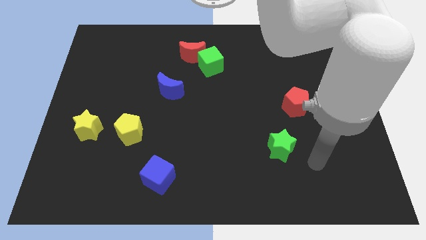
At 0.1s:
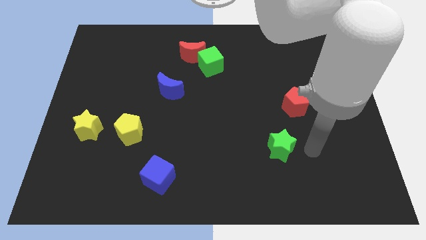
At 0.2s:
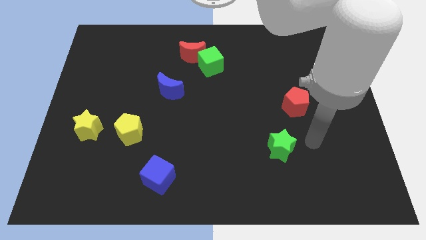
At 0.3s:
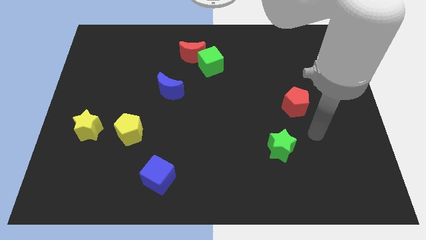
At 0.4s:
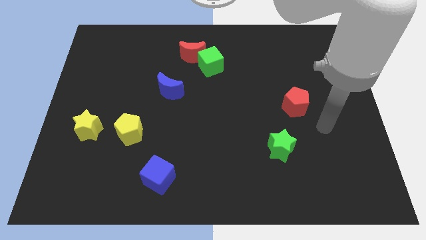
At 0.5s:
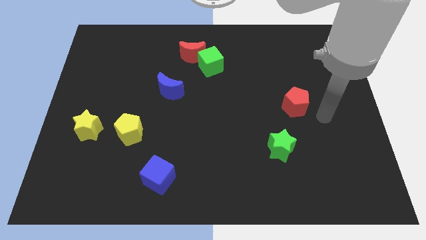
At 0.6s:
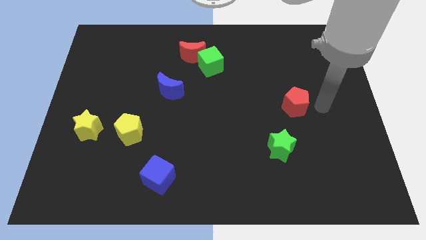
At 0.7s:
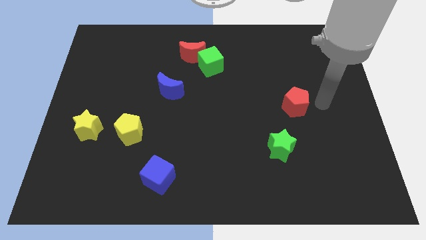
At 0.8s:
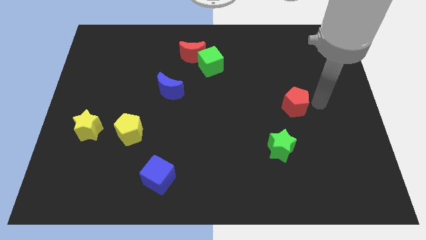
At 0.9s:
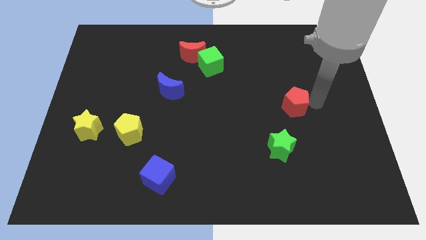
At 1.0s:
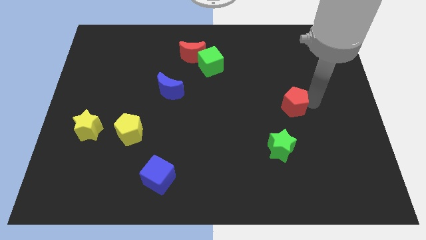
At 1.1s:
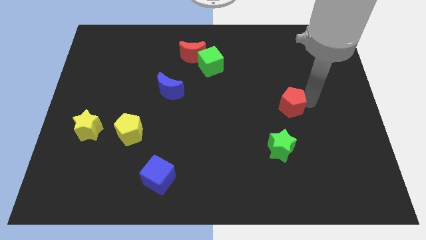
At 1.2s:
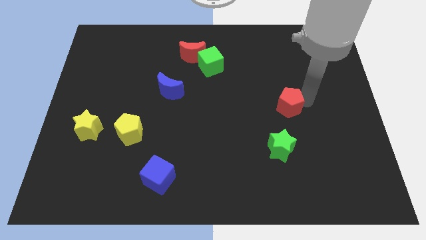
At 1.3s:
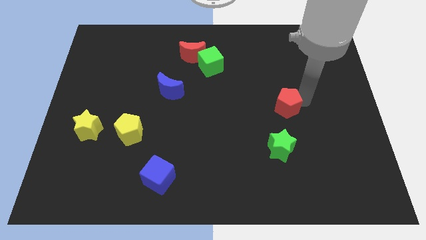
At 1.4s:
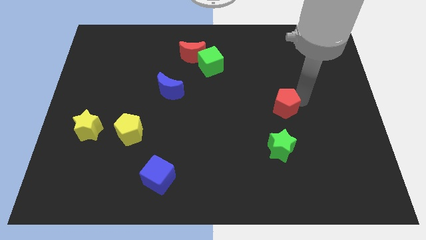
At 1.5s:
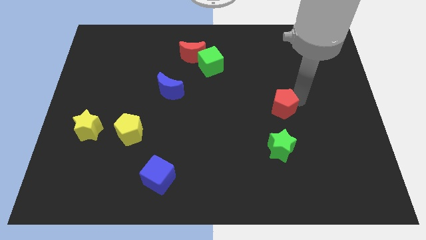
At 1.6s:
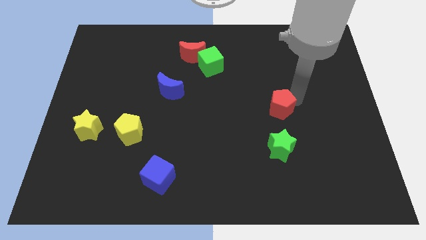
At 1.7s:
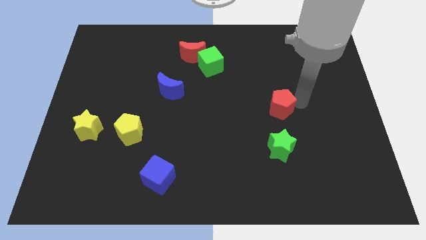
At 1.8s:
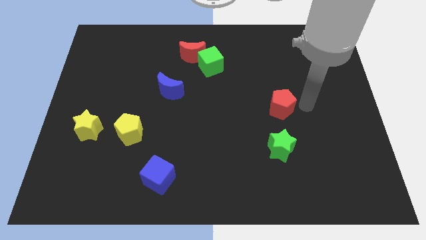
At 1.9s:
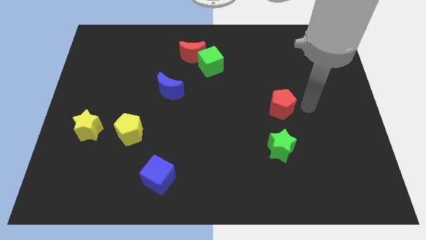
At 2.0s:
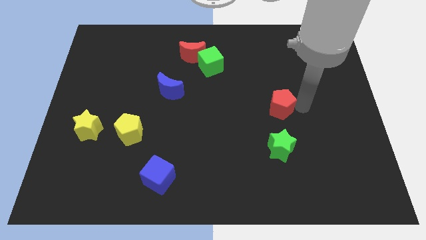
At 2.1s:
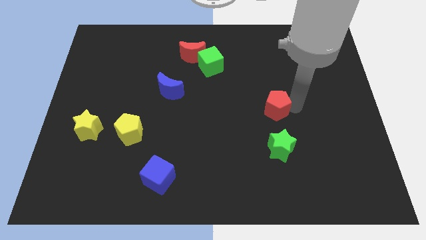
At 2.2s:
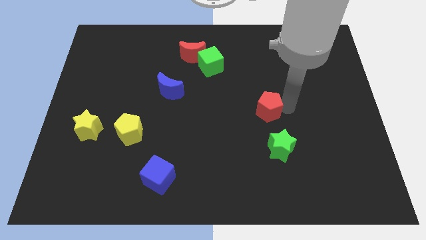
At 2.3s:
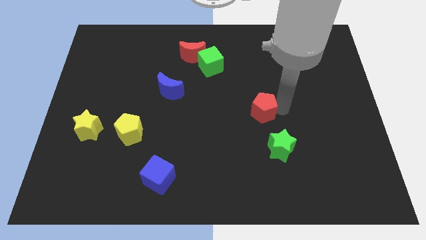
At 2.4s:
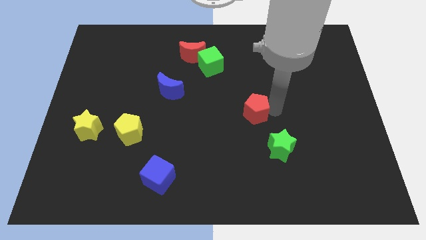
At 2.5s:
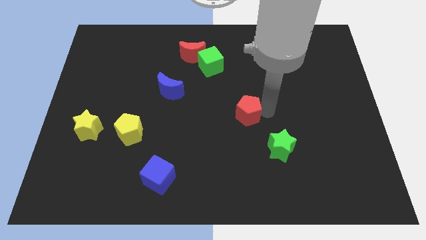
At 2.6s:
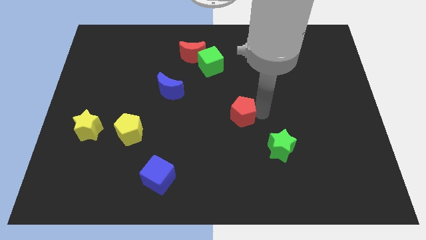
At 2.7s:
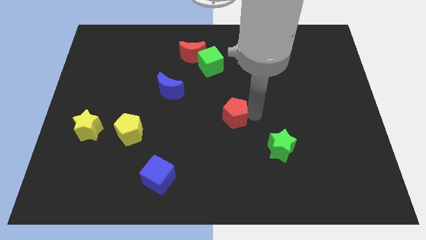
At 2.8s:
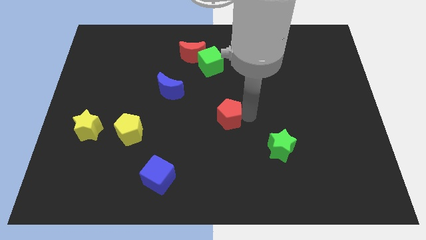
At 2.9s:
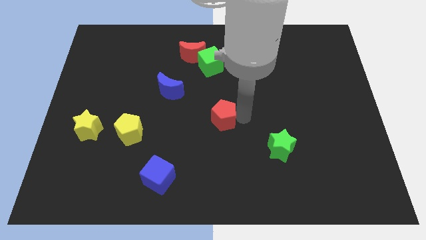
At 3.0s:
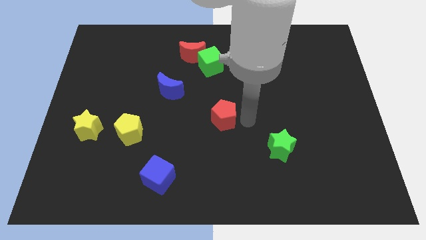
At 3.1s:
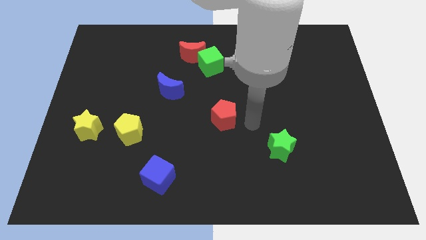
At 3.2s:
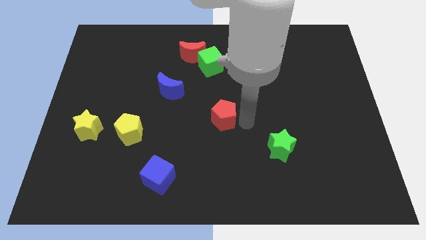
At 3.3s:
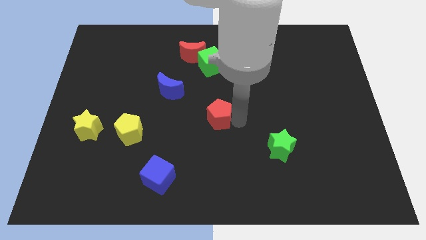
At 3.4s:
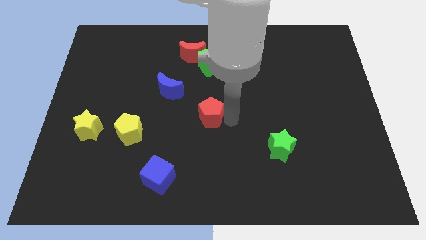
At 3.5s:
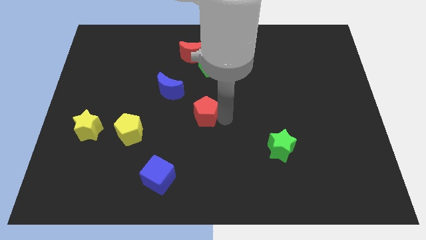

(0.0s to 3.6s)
push the red pentagon to the left

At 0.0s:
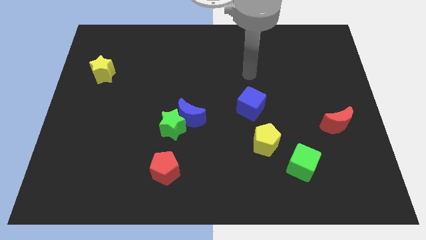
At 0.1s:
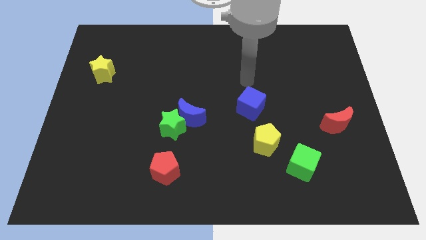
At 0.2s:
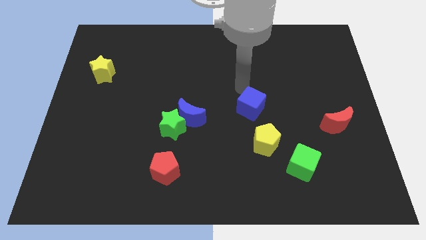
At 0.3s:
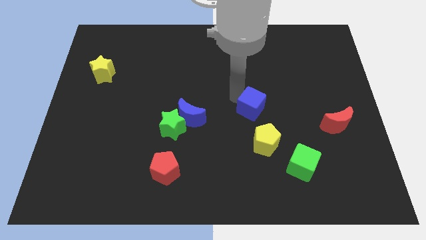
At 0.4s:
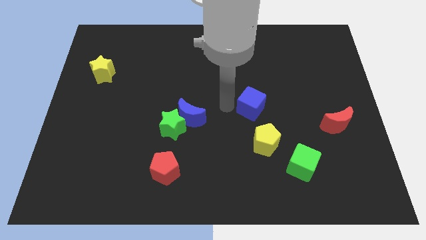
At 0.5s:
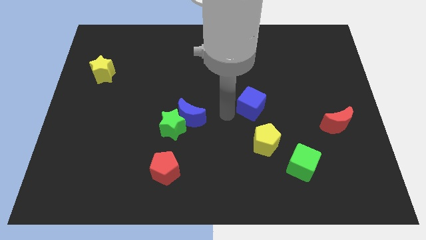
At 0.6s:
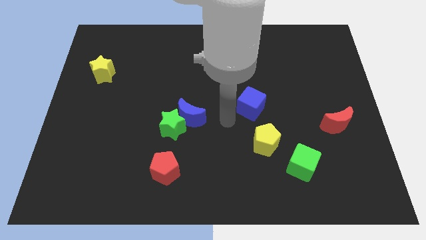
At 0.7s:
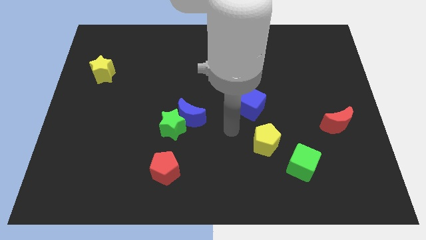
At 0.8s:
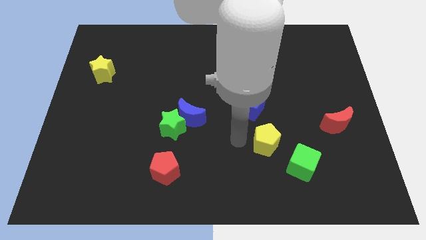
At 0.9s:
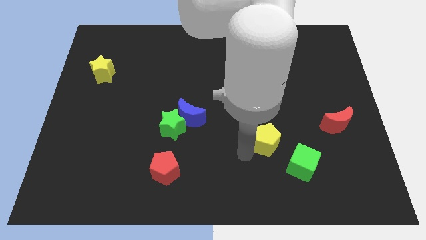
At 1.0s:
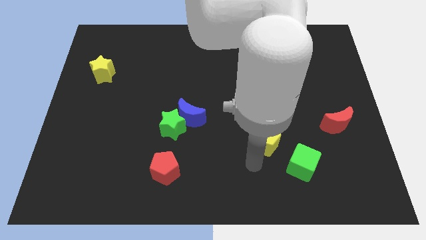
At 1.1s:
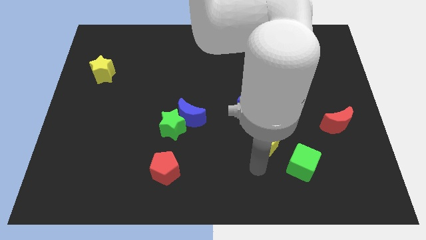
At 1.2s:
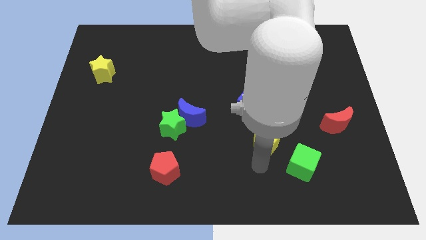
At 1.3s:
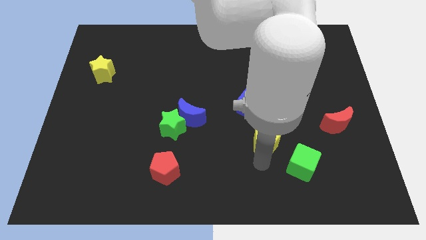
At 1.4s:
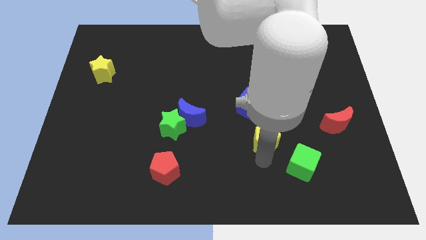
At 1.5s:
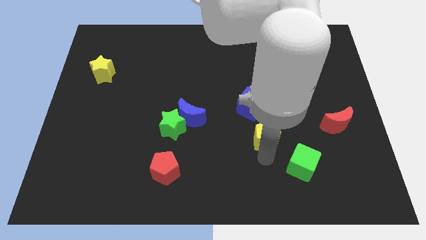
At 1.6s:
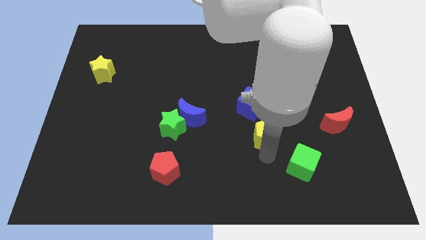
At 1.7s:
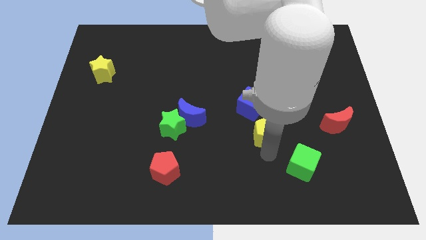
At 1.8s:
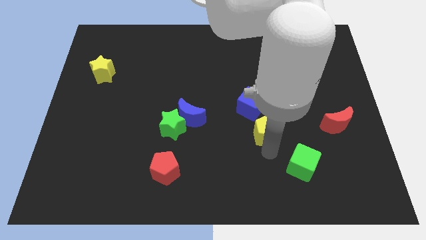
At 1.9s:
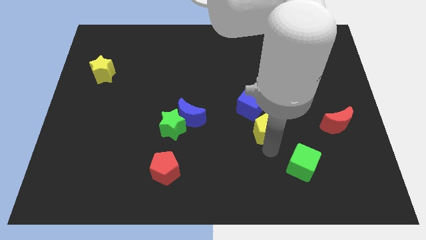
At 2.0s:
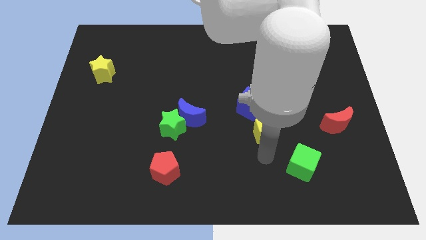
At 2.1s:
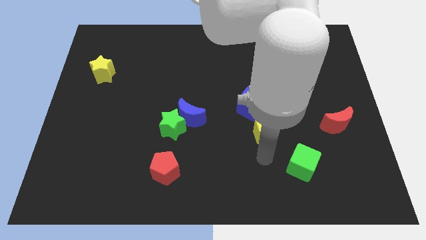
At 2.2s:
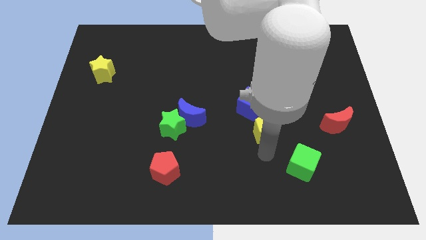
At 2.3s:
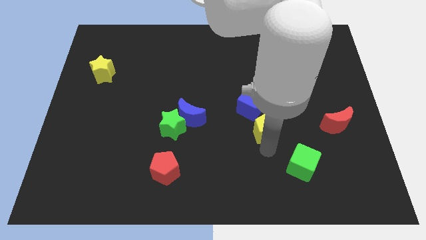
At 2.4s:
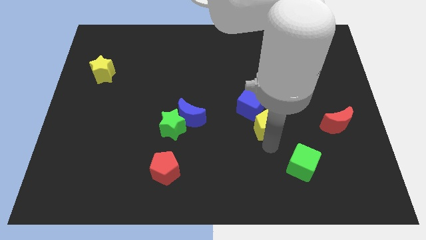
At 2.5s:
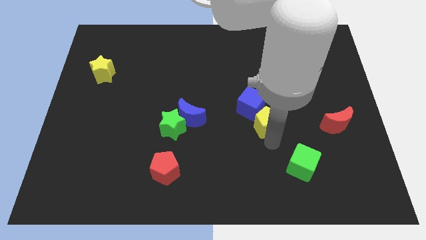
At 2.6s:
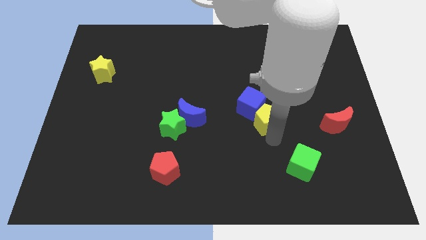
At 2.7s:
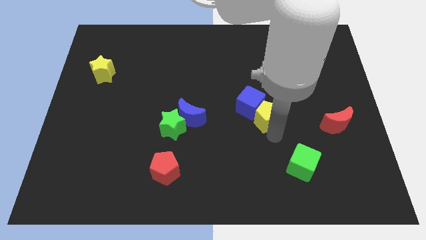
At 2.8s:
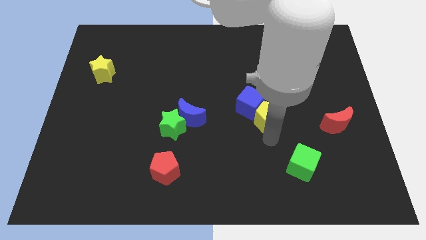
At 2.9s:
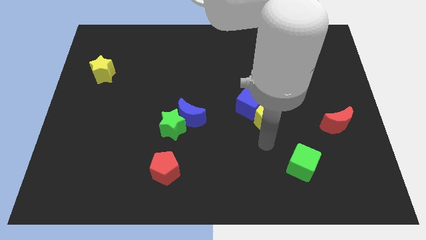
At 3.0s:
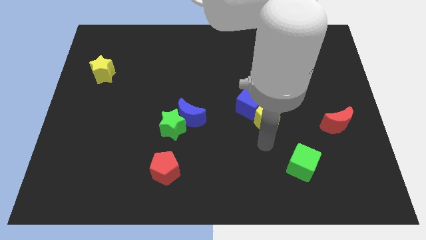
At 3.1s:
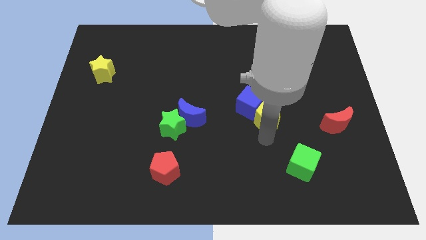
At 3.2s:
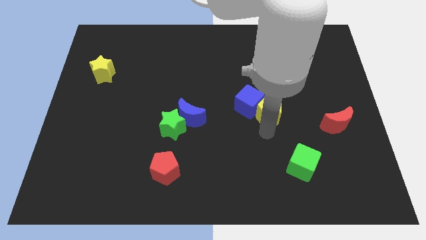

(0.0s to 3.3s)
slide the yellow pentagon upwards slightly

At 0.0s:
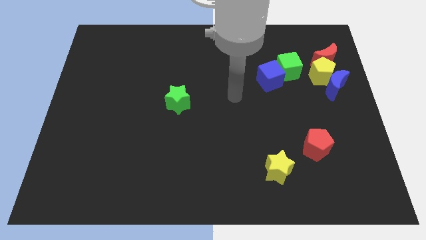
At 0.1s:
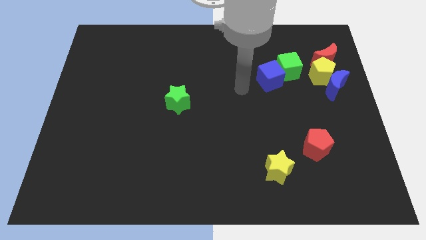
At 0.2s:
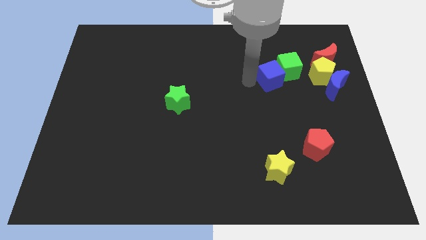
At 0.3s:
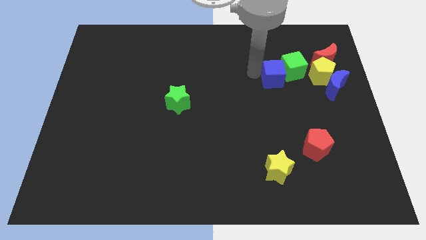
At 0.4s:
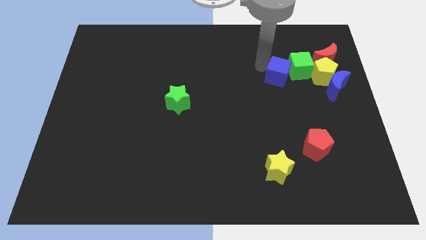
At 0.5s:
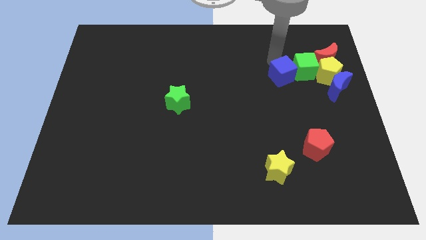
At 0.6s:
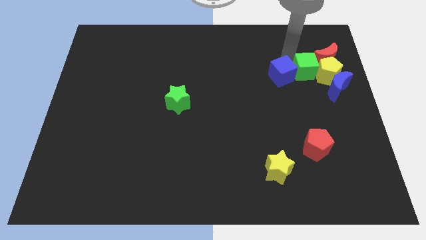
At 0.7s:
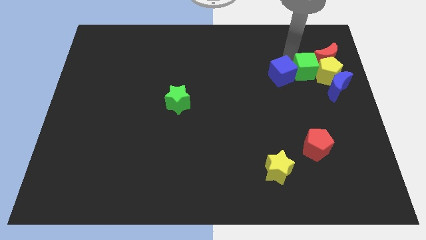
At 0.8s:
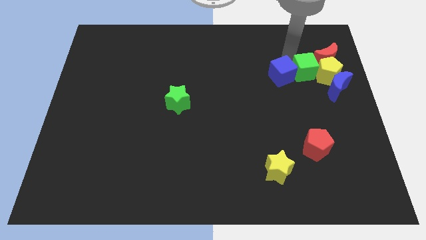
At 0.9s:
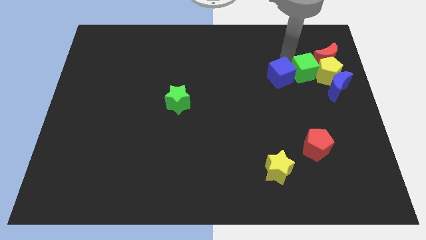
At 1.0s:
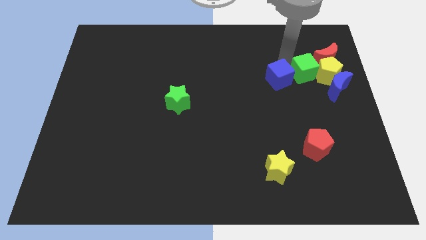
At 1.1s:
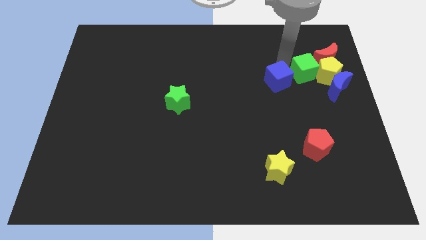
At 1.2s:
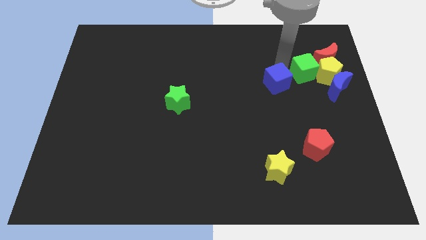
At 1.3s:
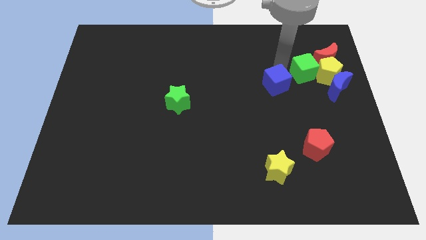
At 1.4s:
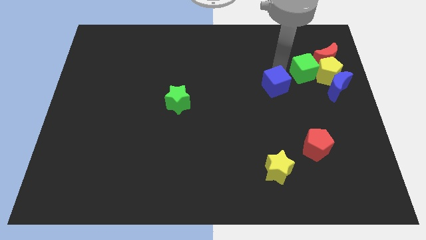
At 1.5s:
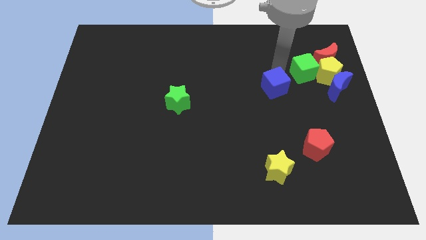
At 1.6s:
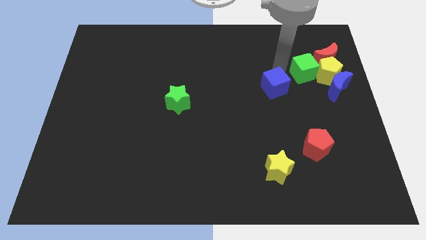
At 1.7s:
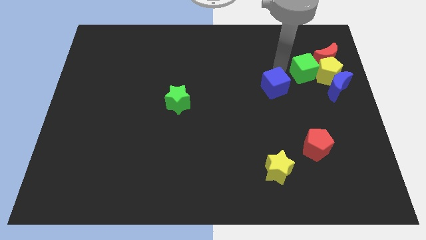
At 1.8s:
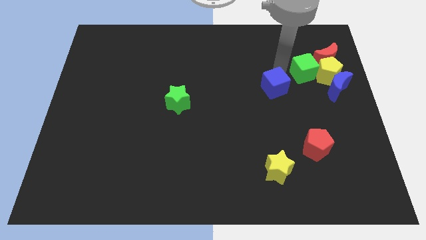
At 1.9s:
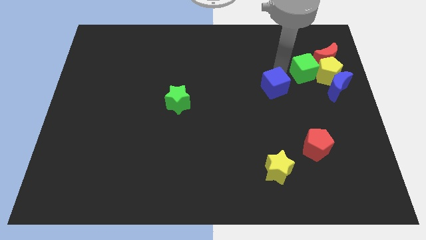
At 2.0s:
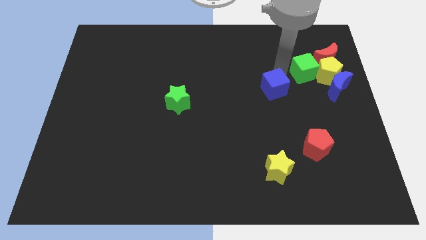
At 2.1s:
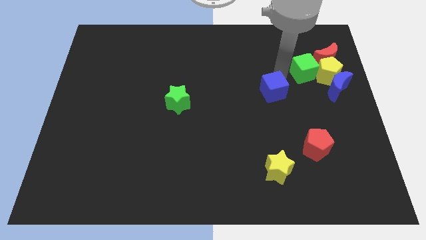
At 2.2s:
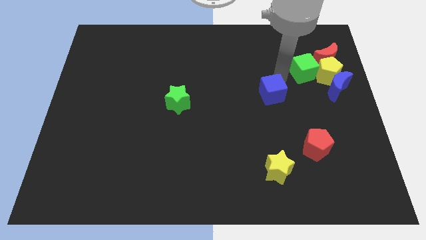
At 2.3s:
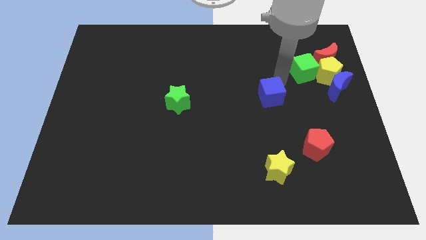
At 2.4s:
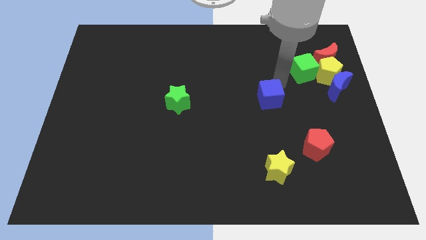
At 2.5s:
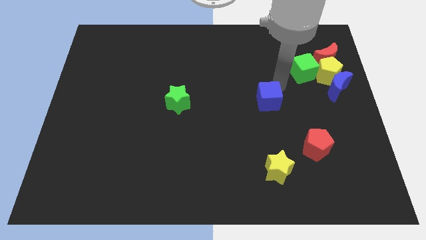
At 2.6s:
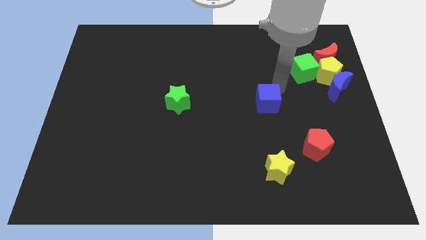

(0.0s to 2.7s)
slide the blue cube downwards slightly
